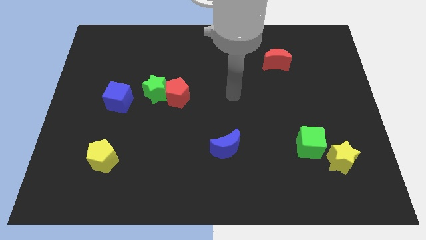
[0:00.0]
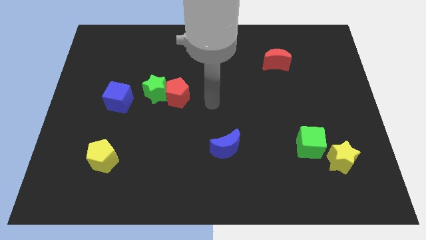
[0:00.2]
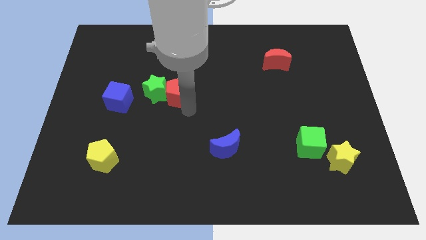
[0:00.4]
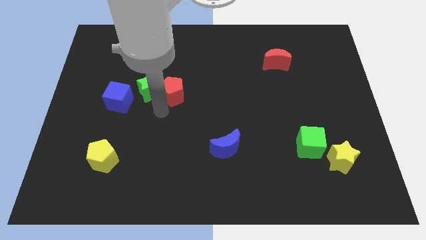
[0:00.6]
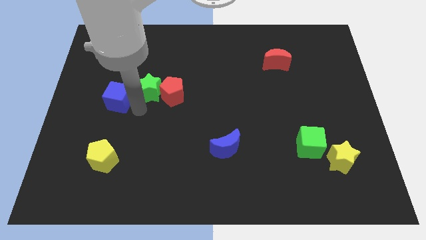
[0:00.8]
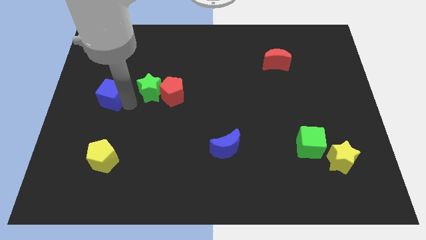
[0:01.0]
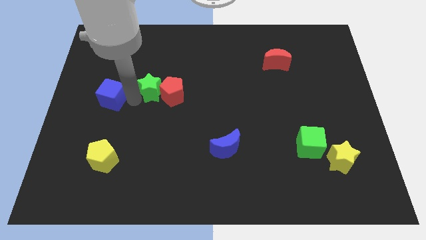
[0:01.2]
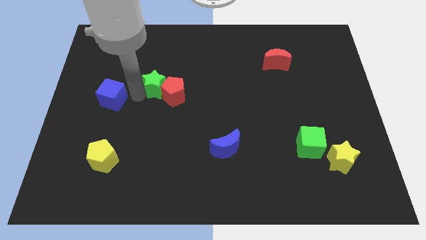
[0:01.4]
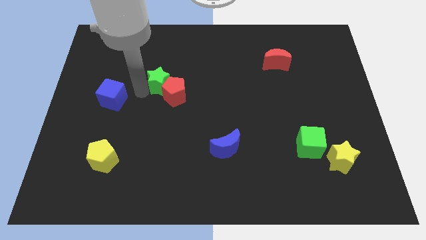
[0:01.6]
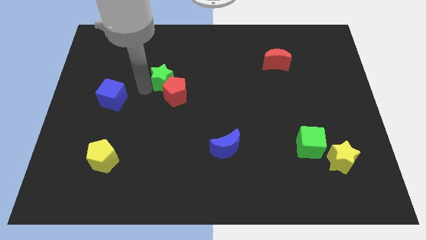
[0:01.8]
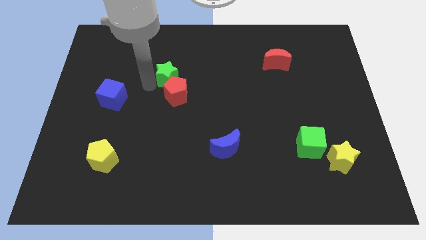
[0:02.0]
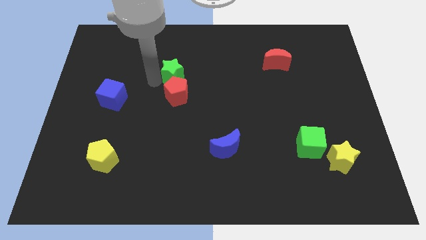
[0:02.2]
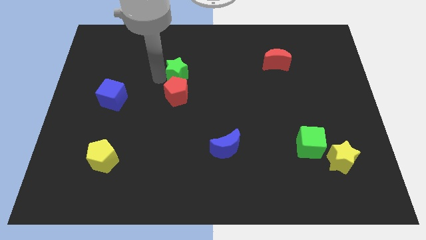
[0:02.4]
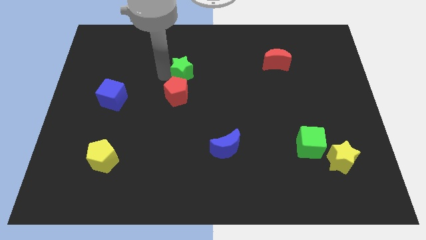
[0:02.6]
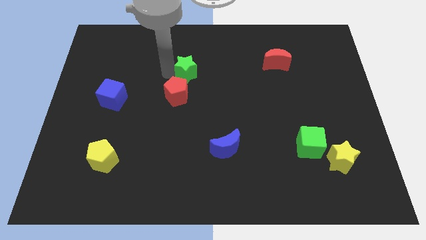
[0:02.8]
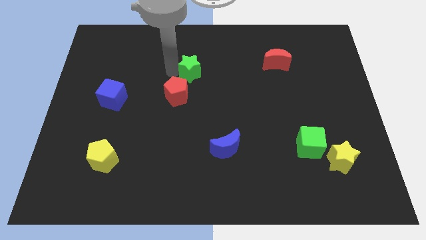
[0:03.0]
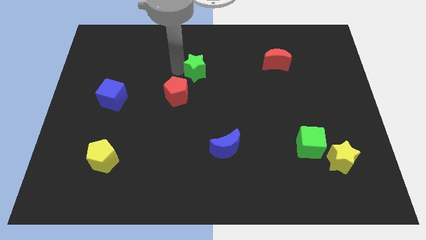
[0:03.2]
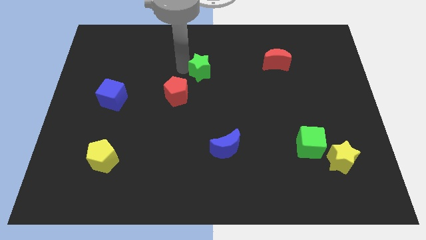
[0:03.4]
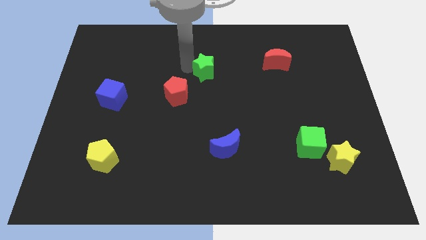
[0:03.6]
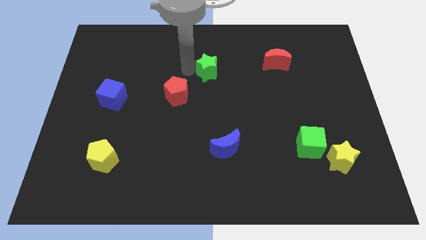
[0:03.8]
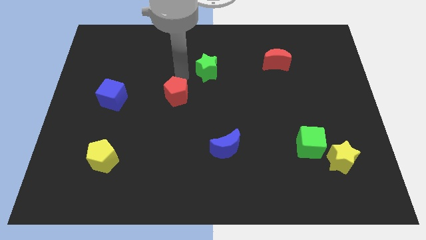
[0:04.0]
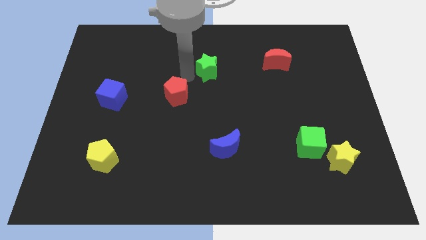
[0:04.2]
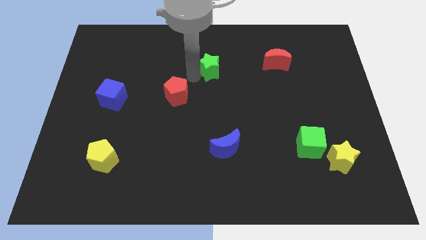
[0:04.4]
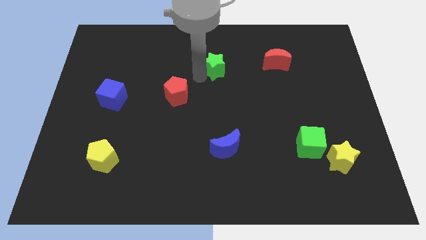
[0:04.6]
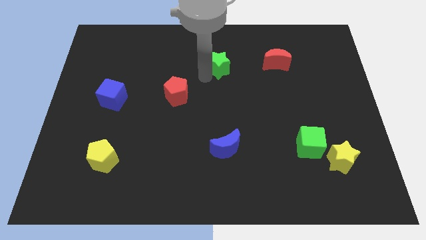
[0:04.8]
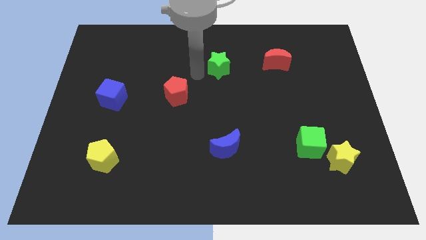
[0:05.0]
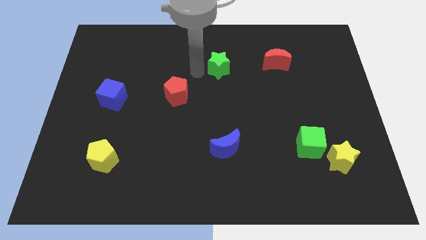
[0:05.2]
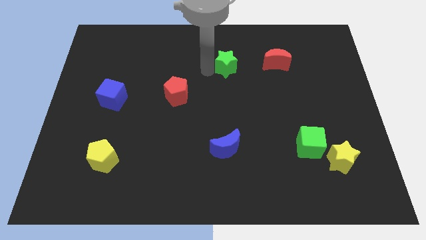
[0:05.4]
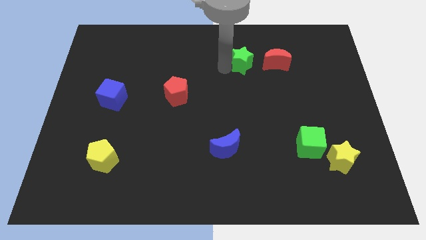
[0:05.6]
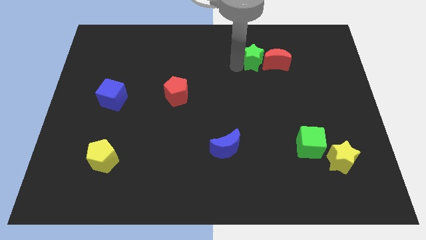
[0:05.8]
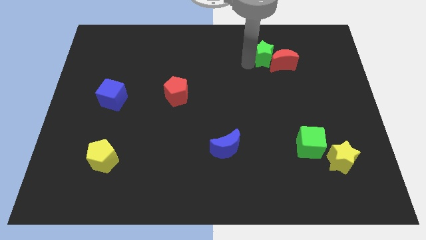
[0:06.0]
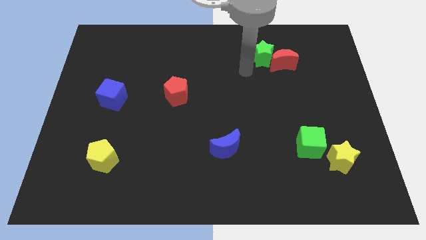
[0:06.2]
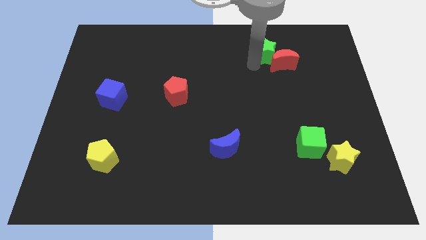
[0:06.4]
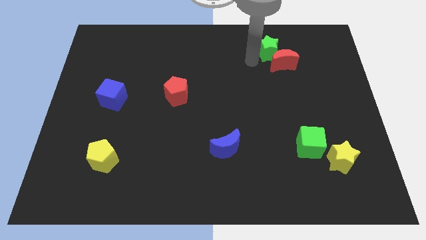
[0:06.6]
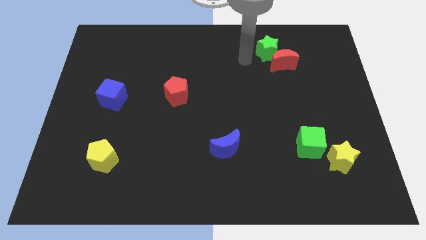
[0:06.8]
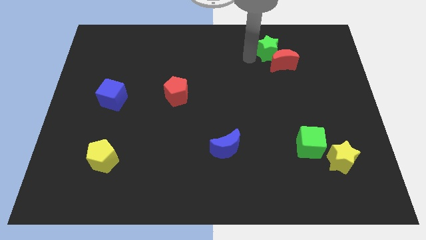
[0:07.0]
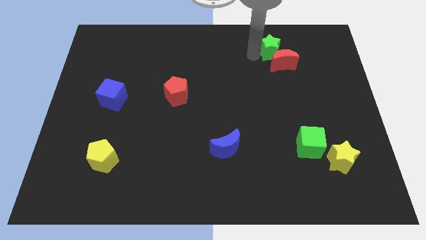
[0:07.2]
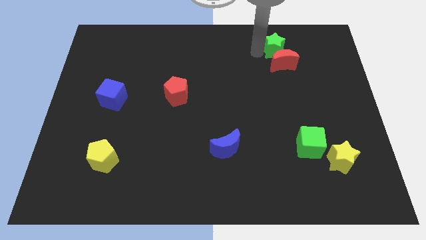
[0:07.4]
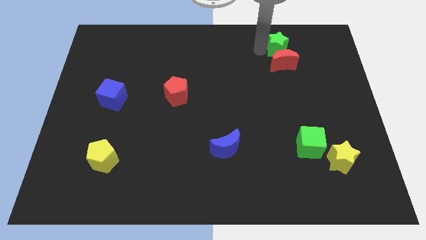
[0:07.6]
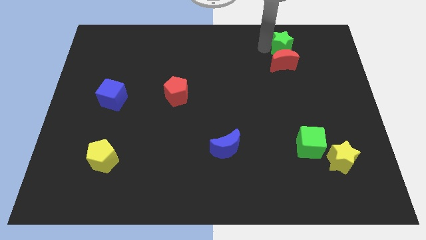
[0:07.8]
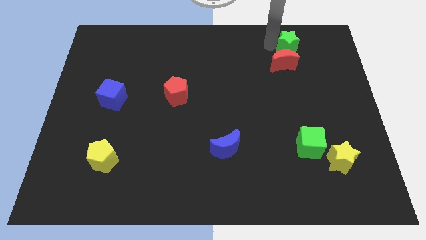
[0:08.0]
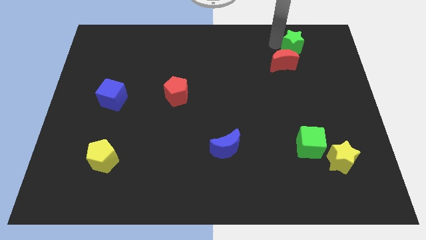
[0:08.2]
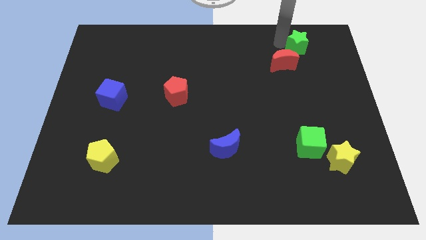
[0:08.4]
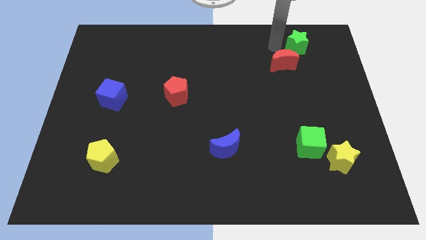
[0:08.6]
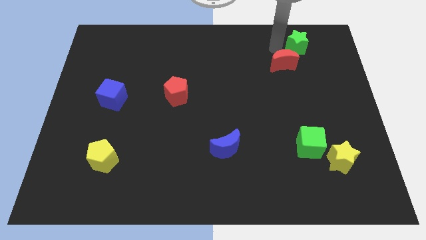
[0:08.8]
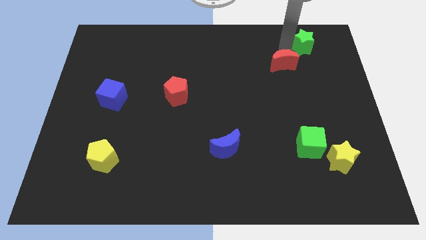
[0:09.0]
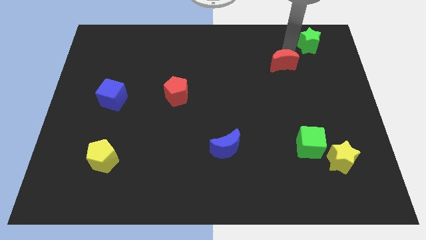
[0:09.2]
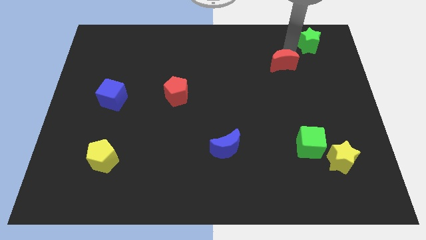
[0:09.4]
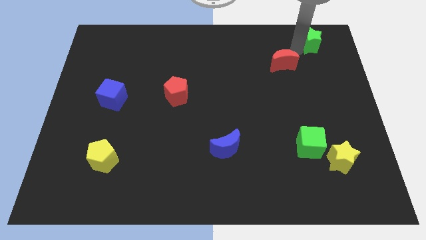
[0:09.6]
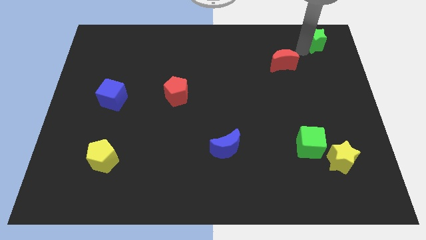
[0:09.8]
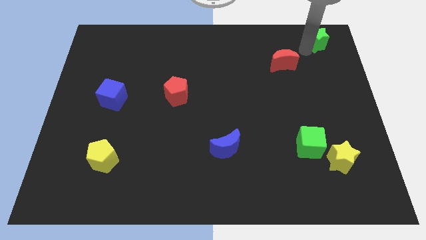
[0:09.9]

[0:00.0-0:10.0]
put the green star to the top right corner

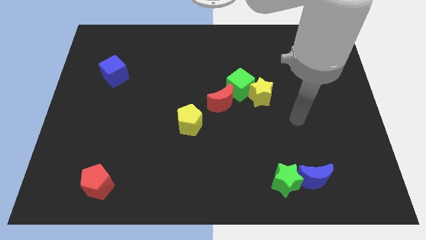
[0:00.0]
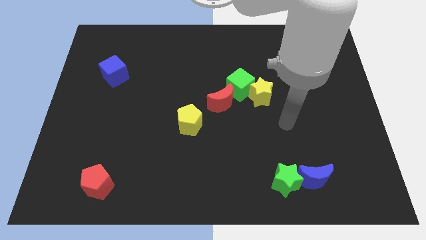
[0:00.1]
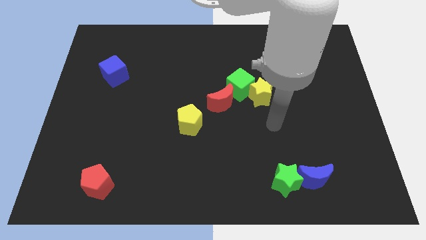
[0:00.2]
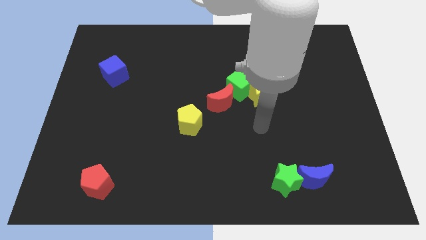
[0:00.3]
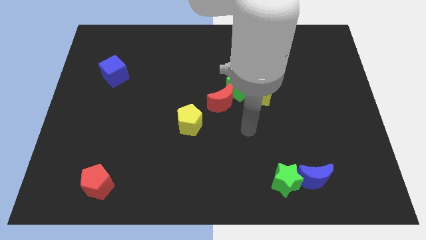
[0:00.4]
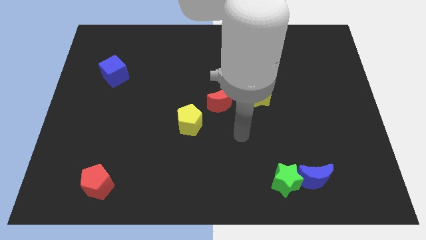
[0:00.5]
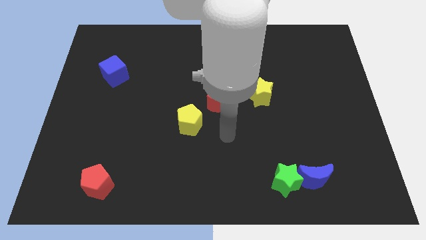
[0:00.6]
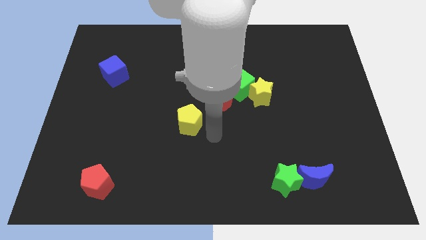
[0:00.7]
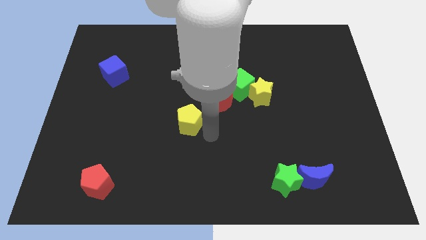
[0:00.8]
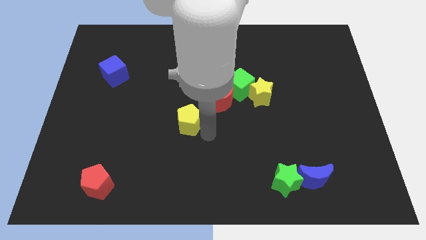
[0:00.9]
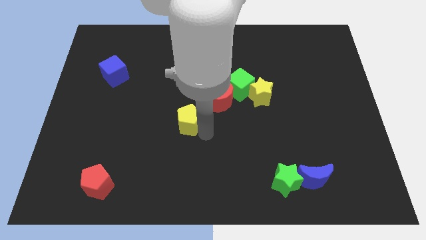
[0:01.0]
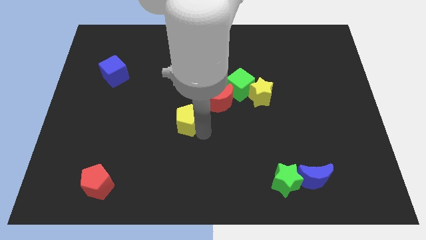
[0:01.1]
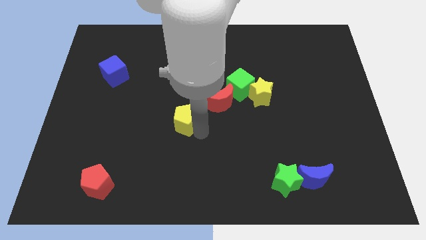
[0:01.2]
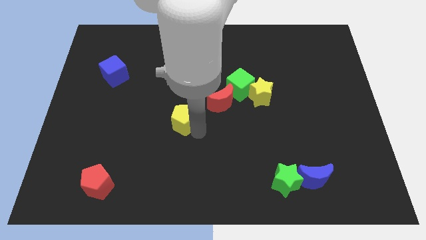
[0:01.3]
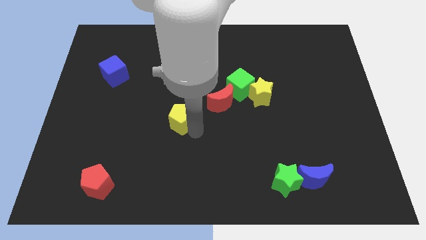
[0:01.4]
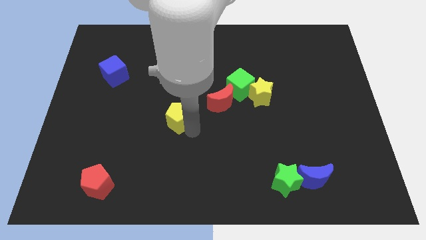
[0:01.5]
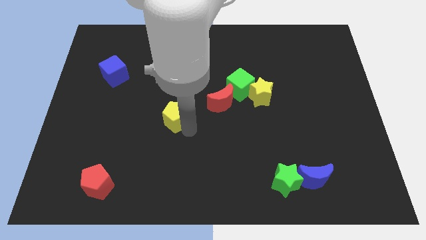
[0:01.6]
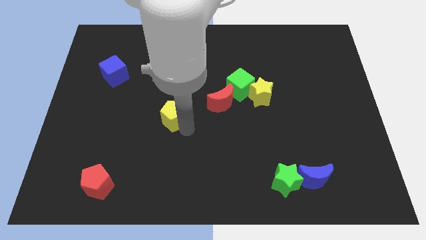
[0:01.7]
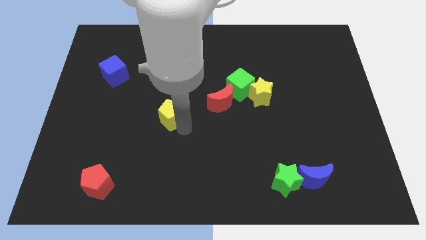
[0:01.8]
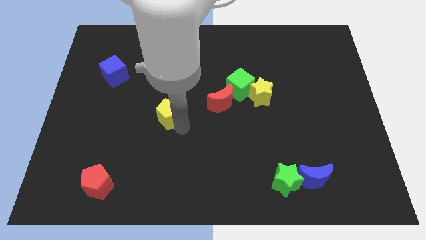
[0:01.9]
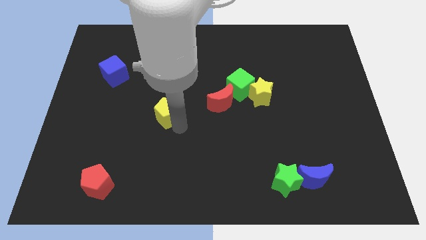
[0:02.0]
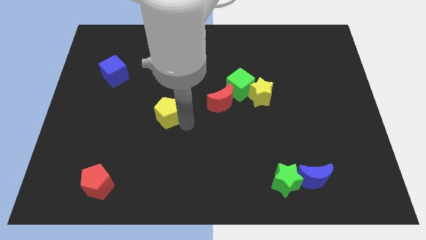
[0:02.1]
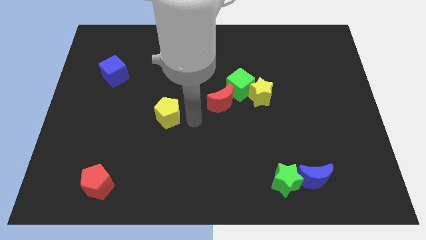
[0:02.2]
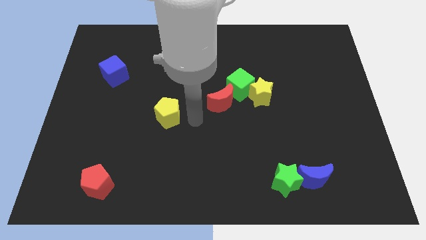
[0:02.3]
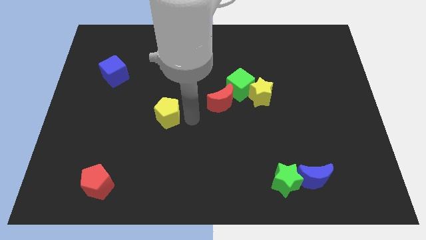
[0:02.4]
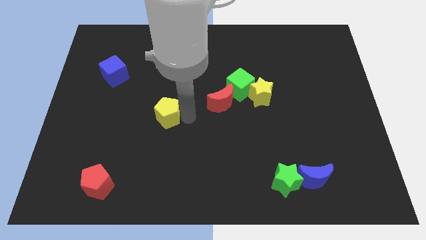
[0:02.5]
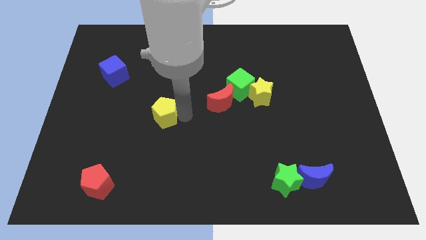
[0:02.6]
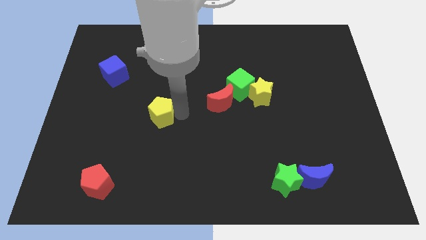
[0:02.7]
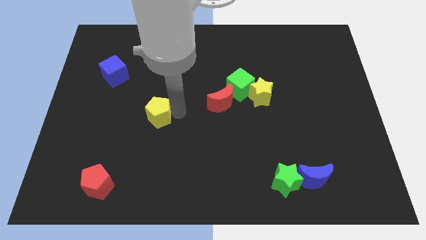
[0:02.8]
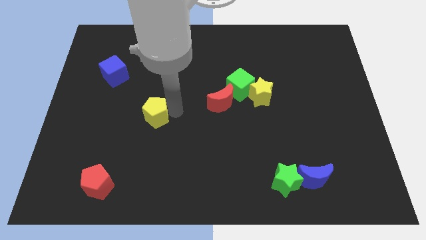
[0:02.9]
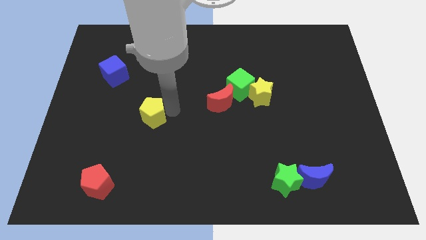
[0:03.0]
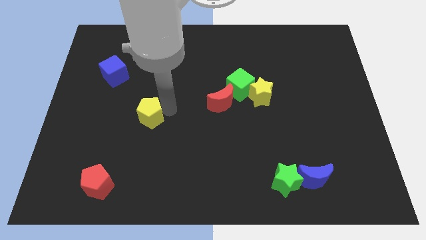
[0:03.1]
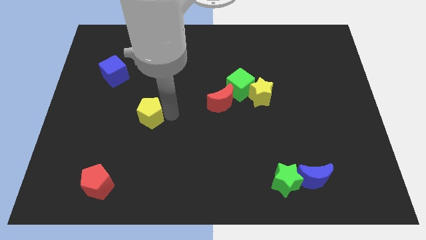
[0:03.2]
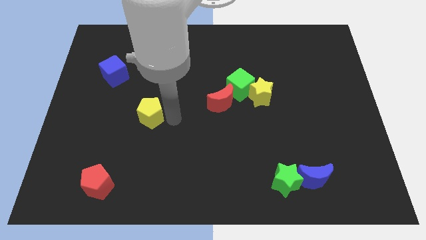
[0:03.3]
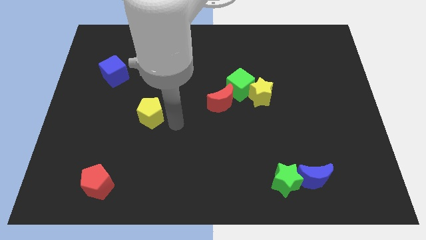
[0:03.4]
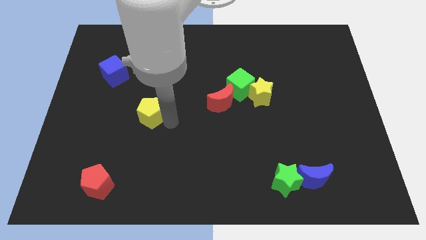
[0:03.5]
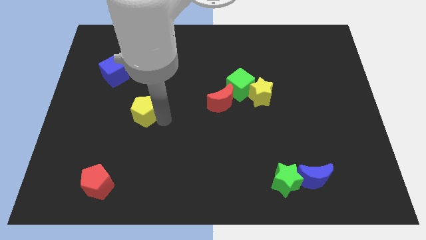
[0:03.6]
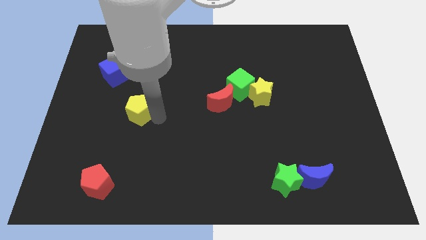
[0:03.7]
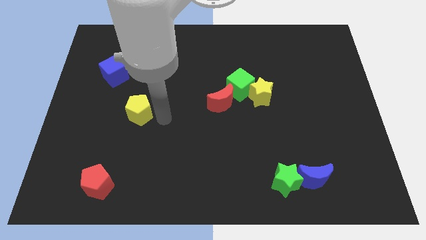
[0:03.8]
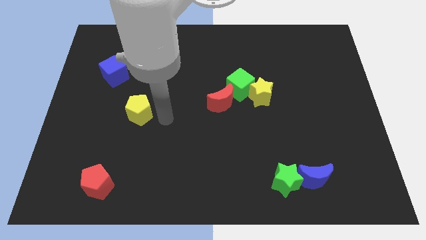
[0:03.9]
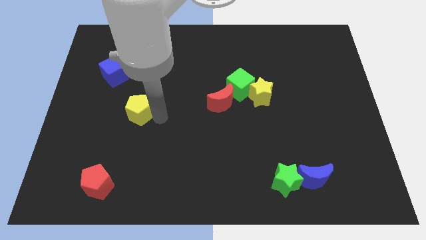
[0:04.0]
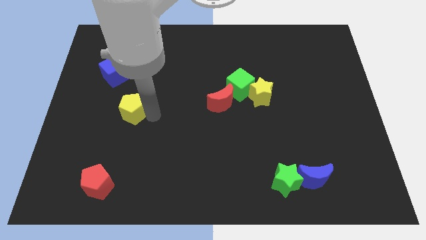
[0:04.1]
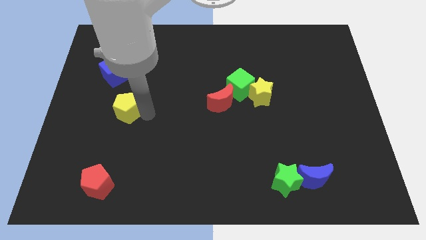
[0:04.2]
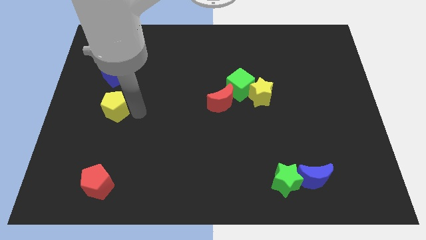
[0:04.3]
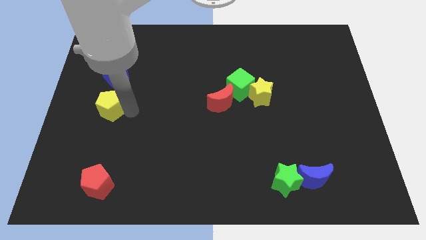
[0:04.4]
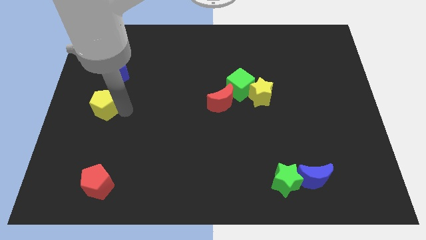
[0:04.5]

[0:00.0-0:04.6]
push the yellow pentagon to the left side
